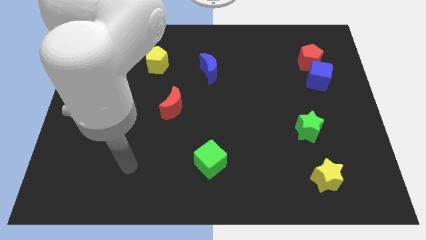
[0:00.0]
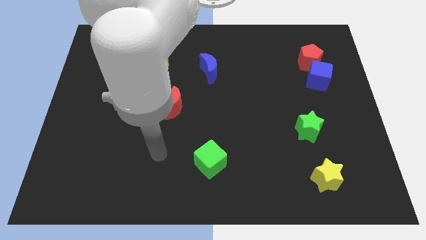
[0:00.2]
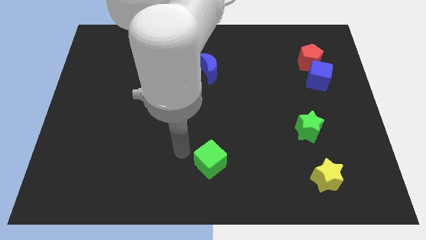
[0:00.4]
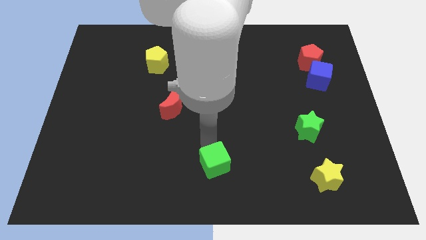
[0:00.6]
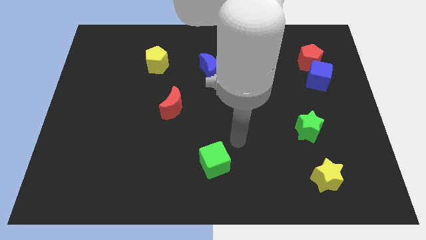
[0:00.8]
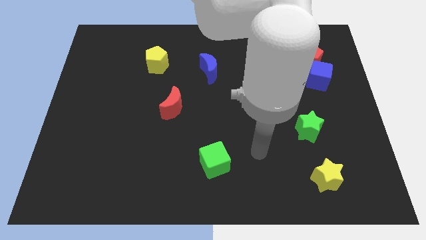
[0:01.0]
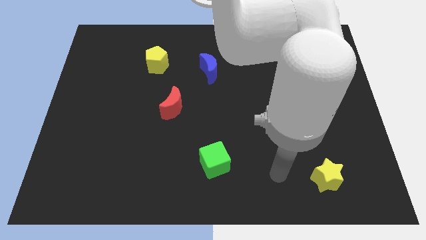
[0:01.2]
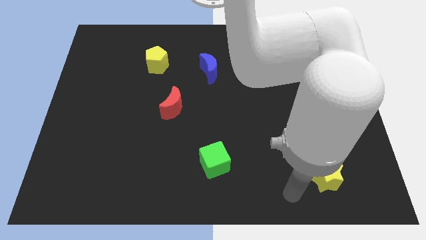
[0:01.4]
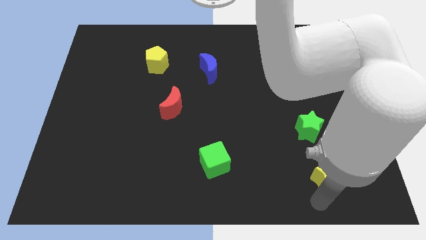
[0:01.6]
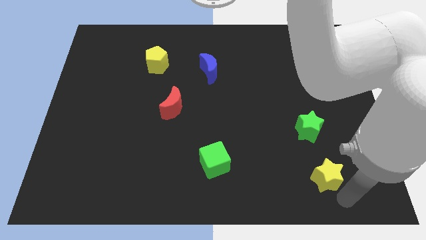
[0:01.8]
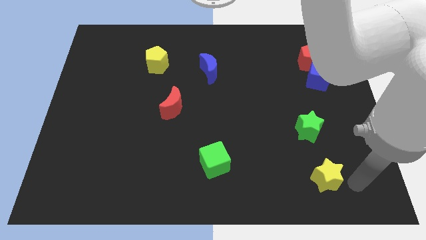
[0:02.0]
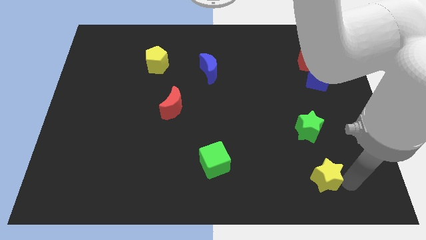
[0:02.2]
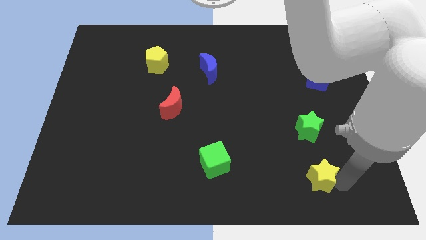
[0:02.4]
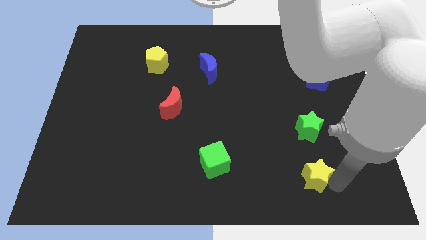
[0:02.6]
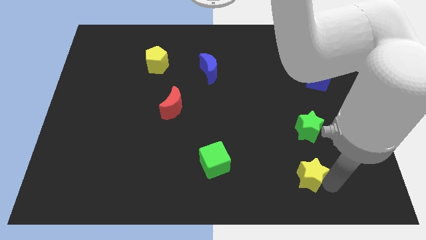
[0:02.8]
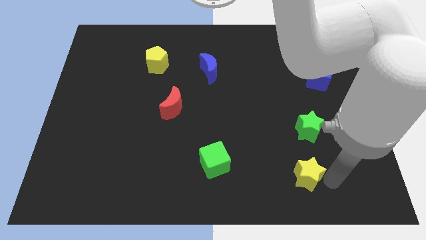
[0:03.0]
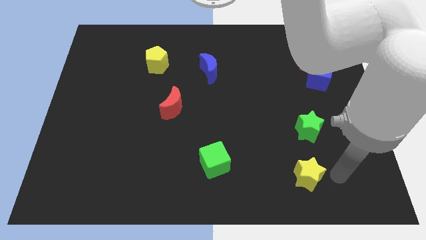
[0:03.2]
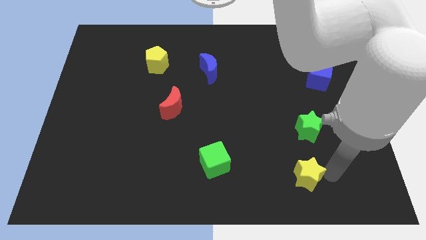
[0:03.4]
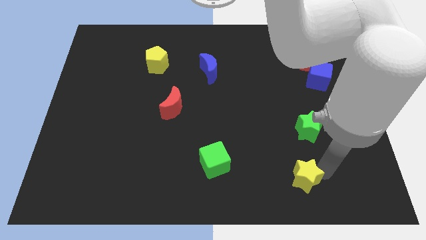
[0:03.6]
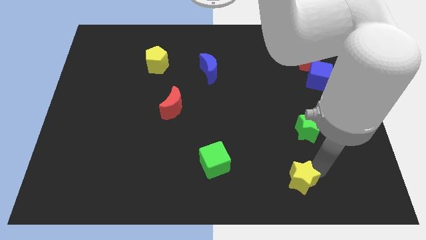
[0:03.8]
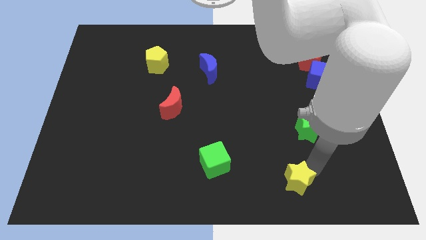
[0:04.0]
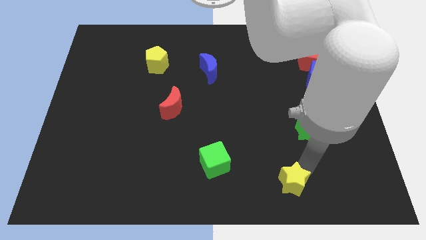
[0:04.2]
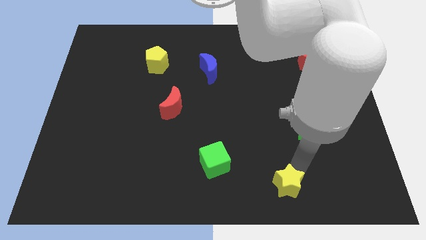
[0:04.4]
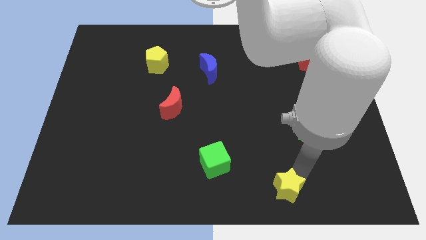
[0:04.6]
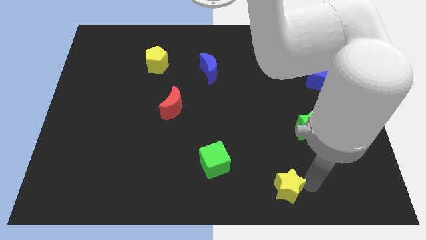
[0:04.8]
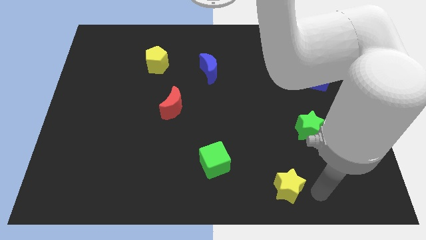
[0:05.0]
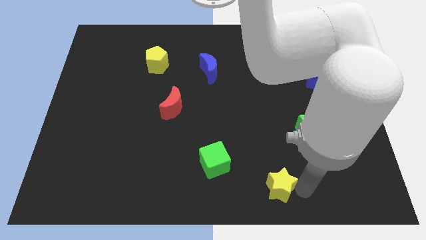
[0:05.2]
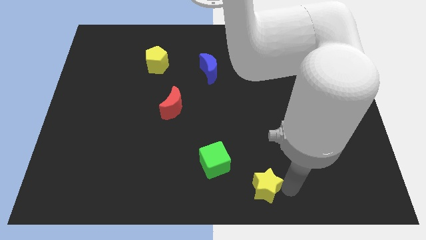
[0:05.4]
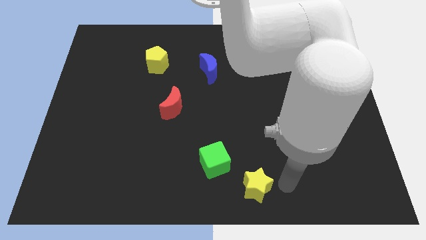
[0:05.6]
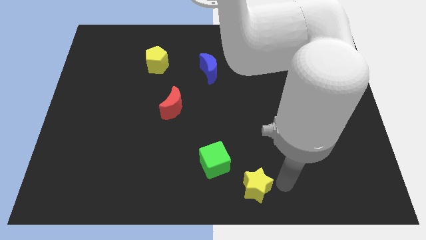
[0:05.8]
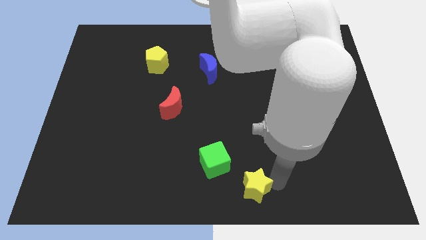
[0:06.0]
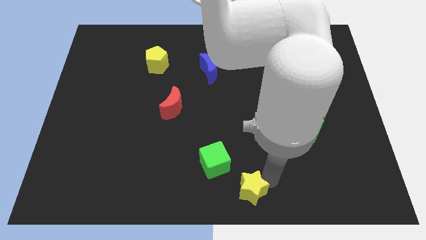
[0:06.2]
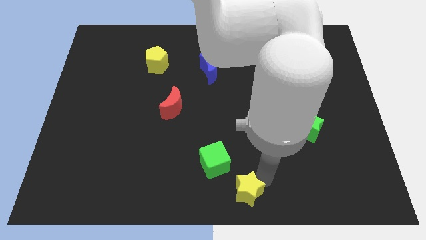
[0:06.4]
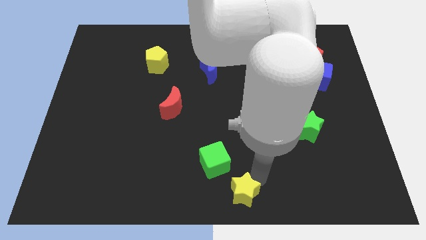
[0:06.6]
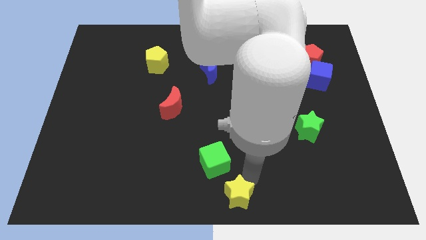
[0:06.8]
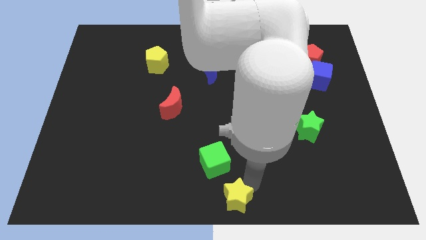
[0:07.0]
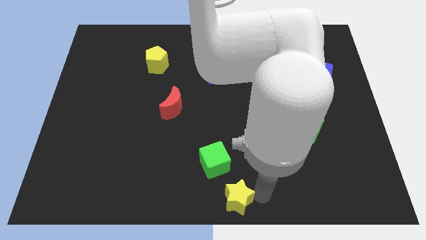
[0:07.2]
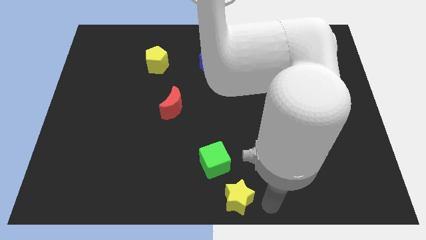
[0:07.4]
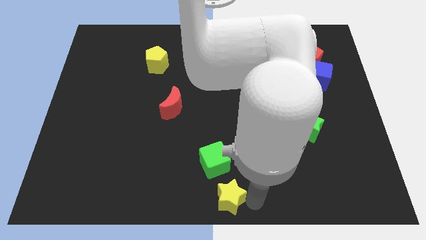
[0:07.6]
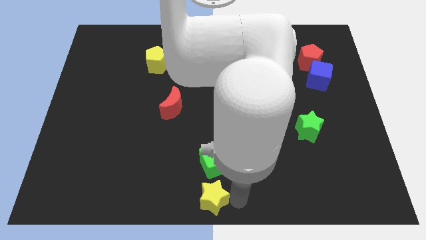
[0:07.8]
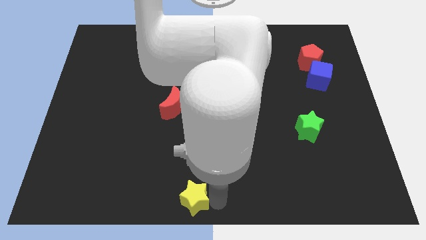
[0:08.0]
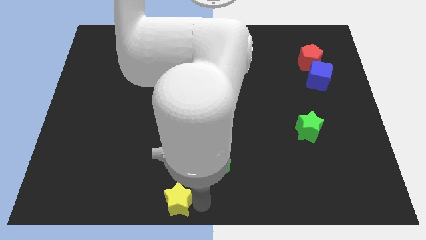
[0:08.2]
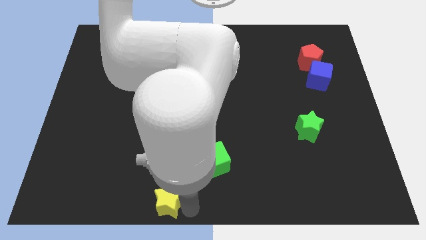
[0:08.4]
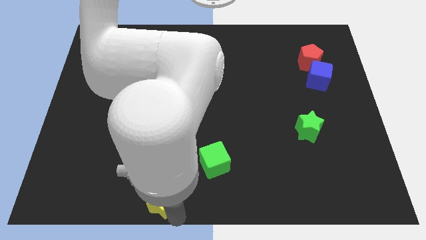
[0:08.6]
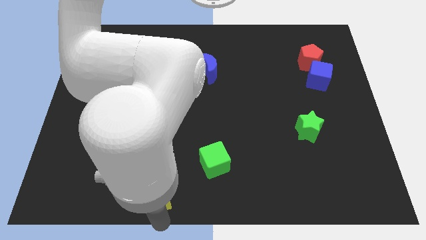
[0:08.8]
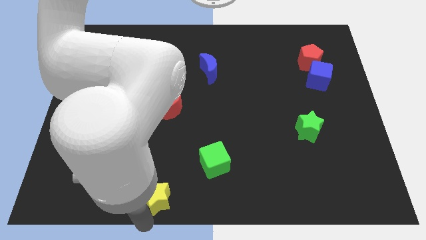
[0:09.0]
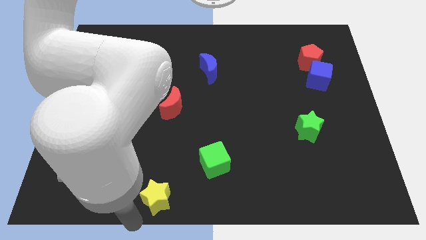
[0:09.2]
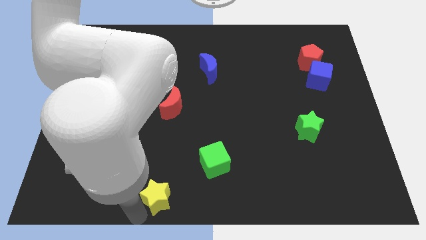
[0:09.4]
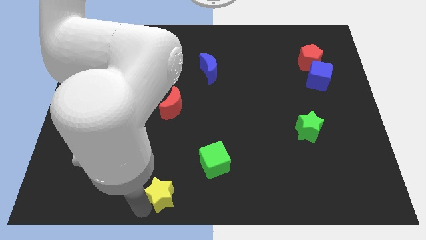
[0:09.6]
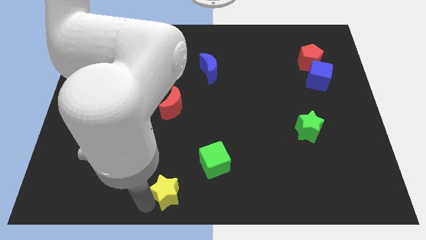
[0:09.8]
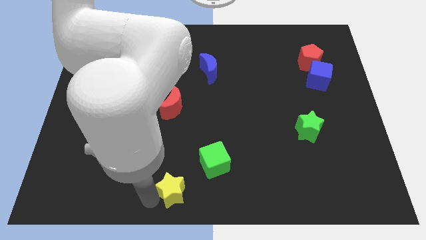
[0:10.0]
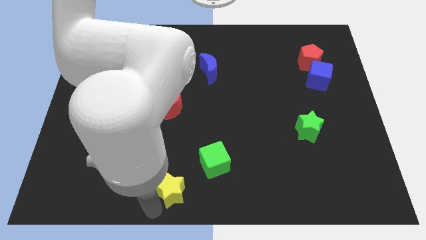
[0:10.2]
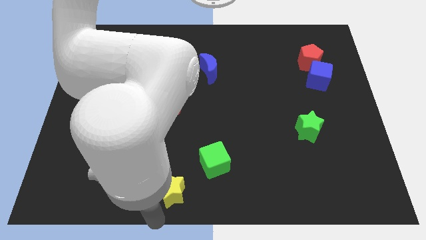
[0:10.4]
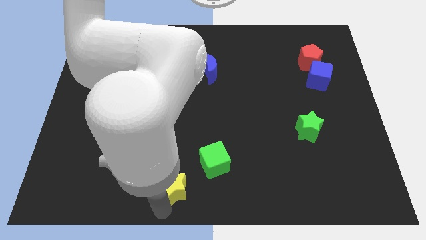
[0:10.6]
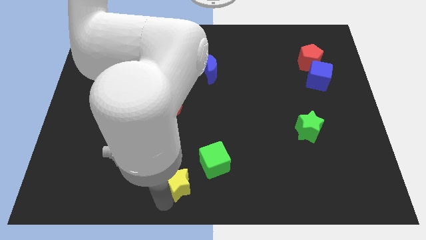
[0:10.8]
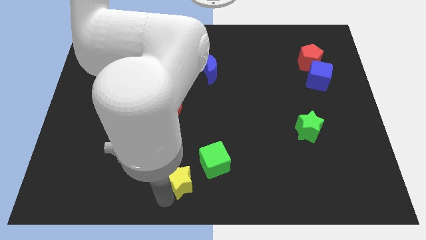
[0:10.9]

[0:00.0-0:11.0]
push the yellow star left of the green cube

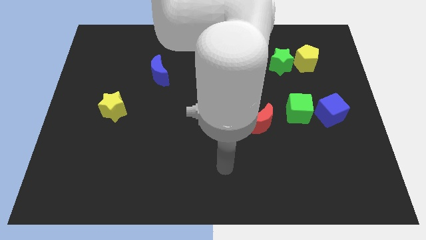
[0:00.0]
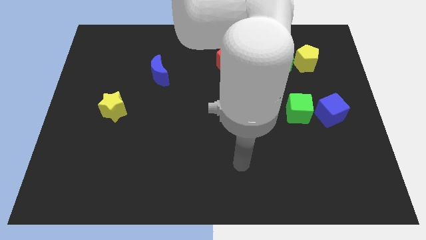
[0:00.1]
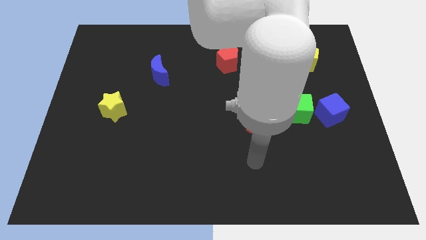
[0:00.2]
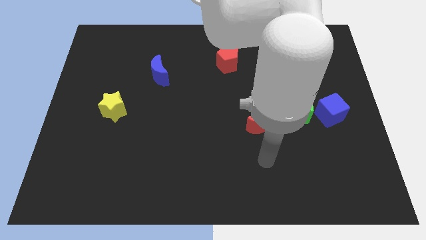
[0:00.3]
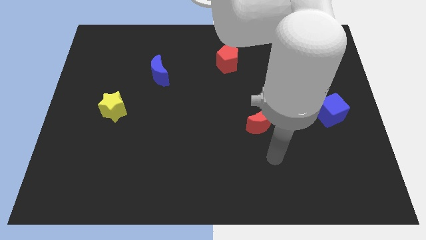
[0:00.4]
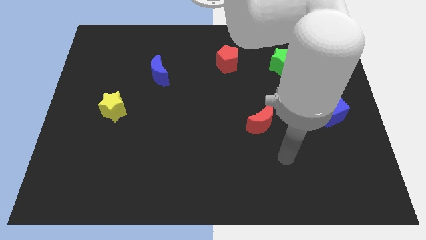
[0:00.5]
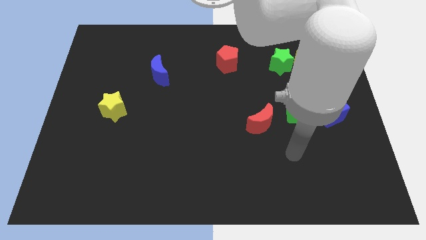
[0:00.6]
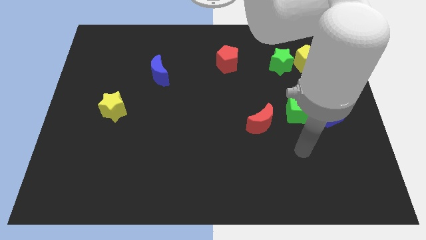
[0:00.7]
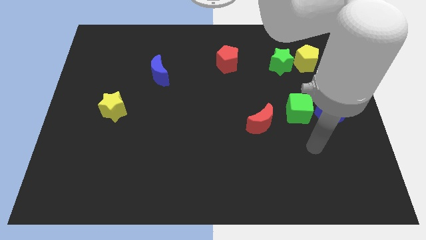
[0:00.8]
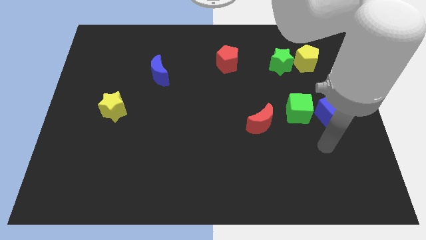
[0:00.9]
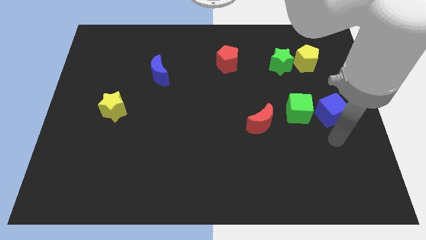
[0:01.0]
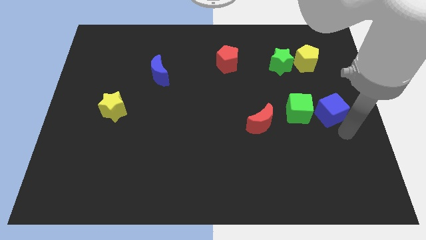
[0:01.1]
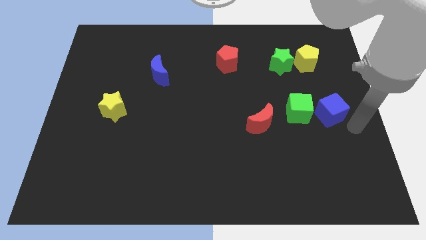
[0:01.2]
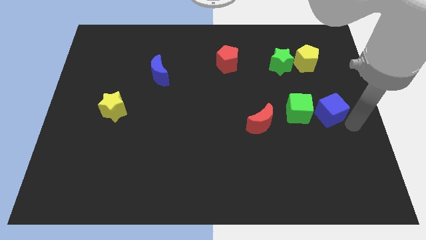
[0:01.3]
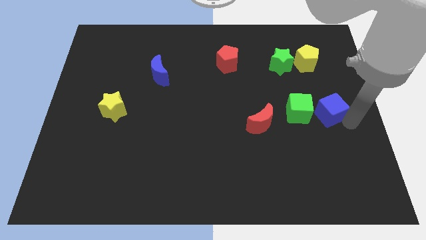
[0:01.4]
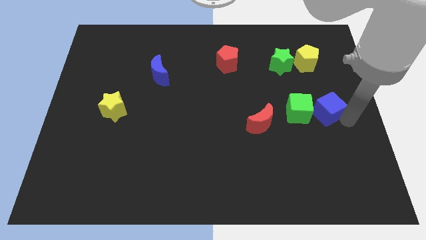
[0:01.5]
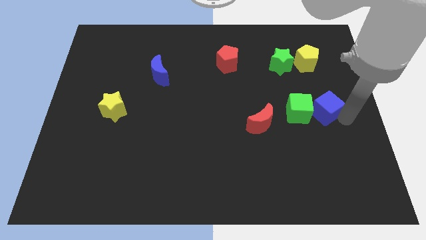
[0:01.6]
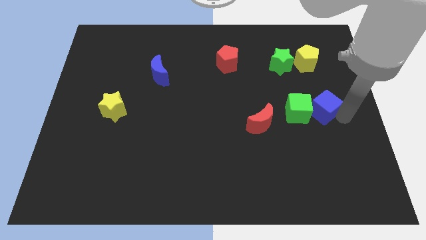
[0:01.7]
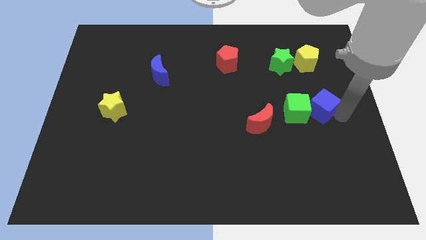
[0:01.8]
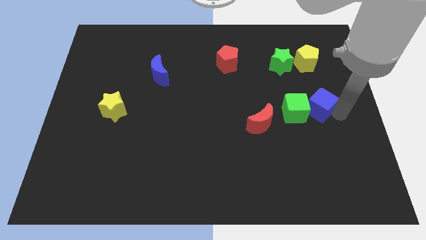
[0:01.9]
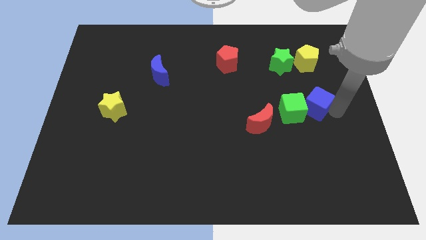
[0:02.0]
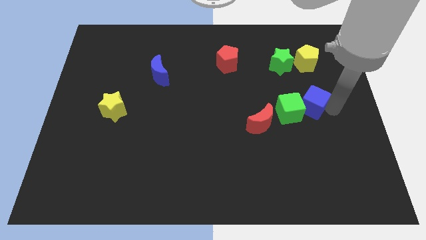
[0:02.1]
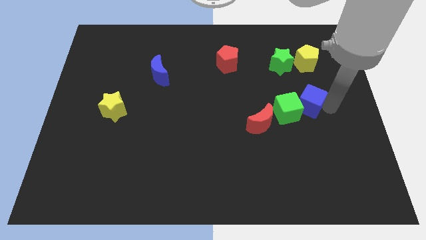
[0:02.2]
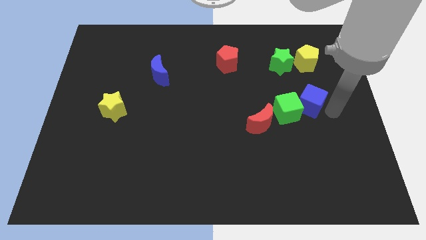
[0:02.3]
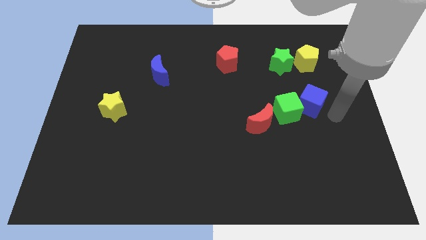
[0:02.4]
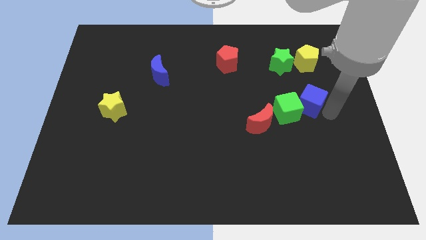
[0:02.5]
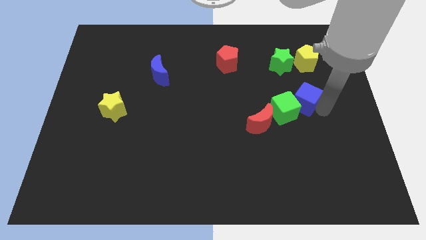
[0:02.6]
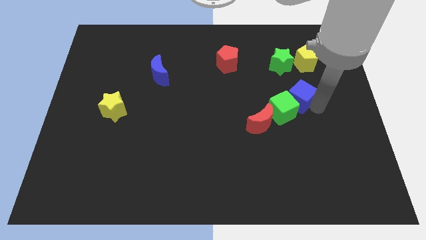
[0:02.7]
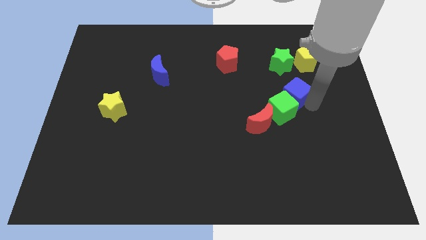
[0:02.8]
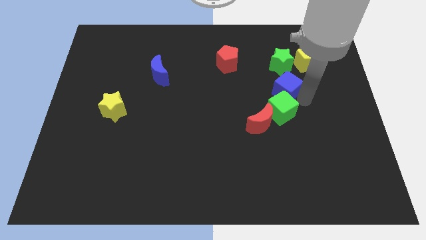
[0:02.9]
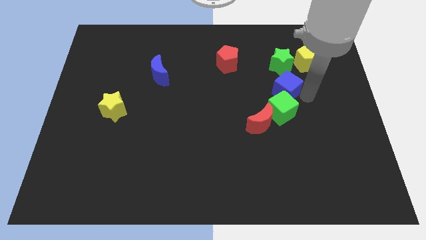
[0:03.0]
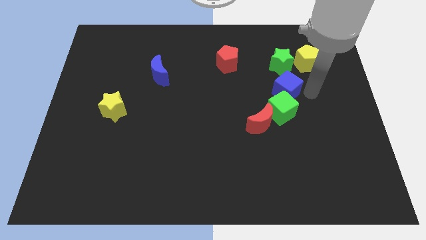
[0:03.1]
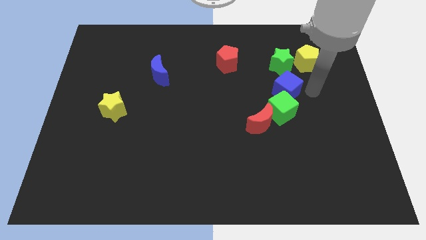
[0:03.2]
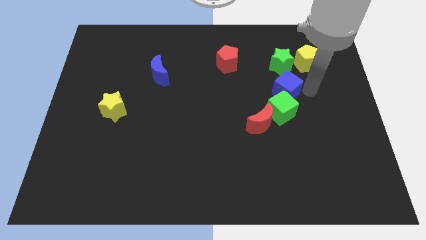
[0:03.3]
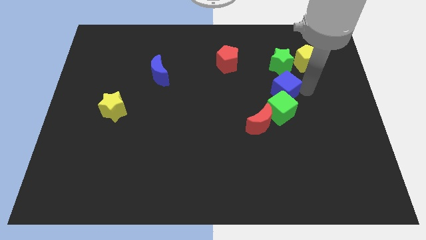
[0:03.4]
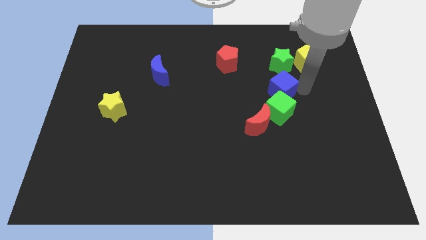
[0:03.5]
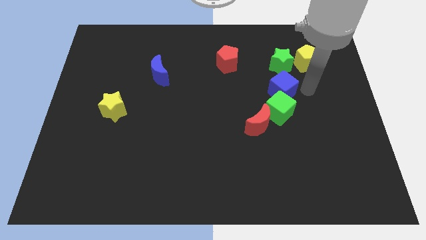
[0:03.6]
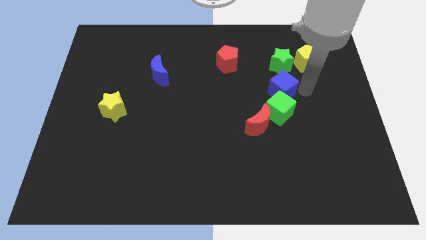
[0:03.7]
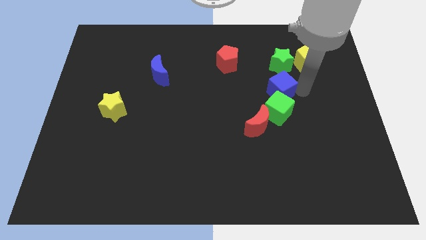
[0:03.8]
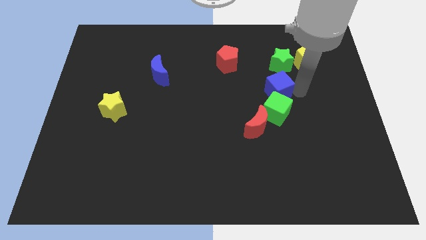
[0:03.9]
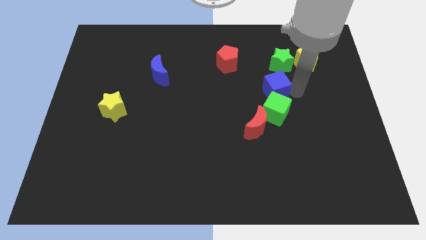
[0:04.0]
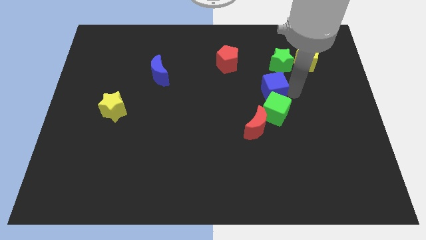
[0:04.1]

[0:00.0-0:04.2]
move the blue cube to the top of the red moon
